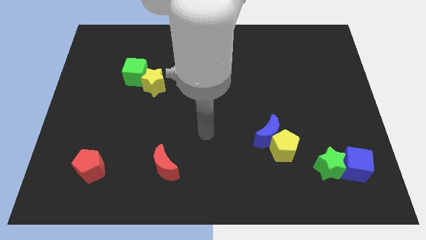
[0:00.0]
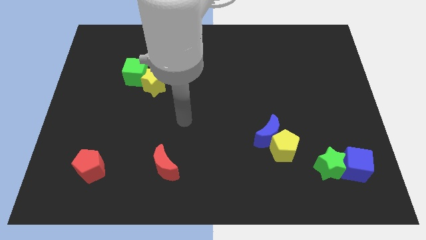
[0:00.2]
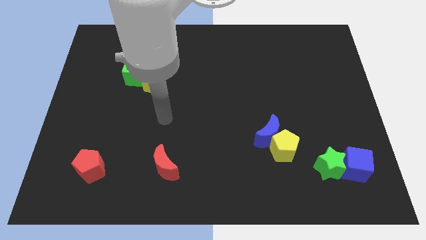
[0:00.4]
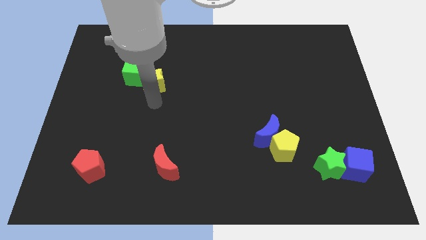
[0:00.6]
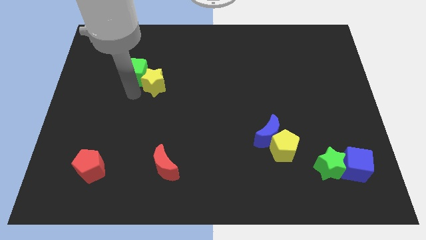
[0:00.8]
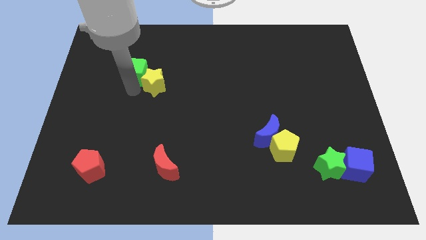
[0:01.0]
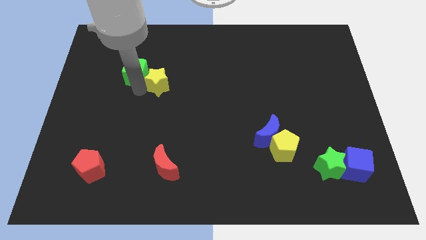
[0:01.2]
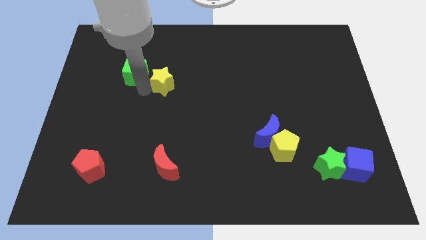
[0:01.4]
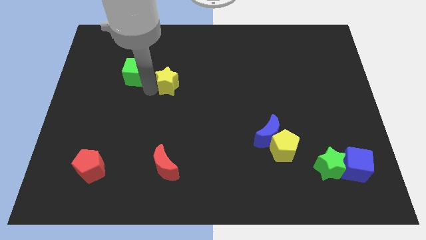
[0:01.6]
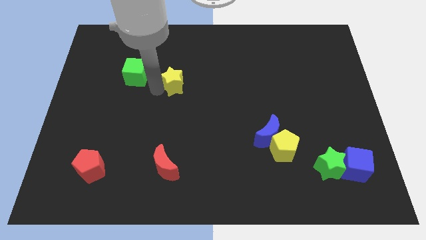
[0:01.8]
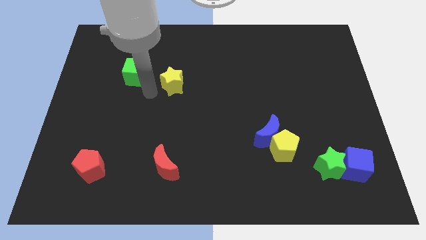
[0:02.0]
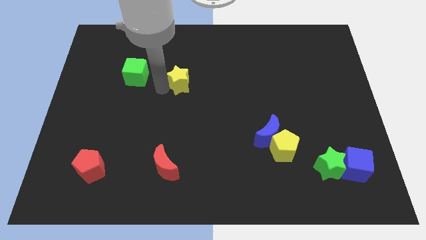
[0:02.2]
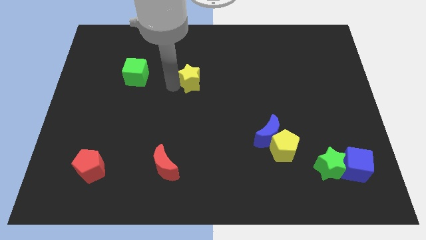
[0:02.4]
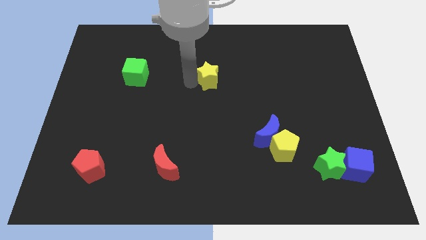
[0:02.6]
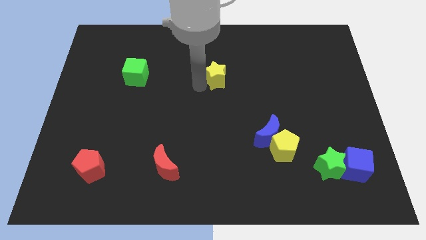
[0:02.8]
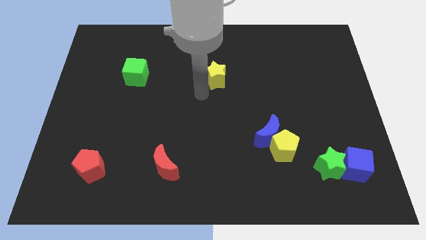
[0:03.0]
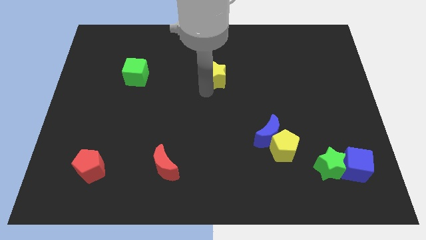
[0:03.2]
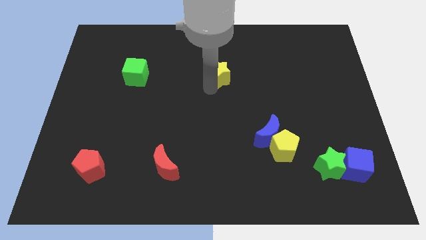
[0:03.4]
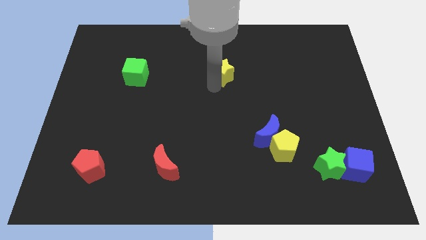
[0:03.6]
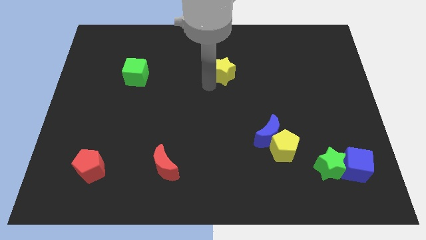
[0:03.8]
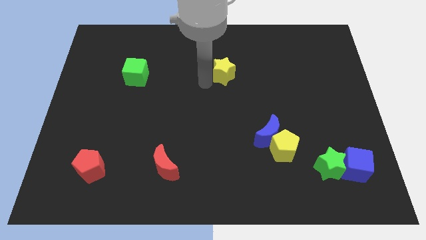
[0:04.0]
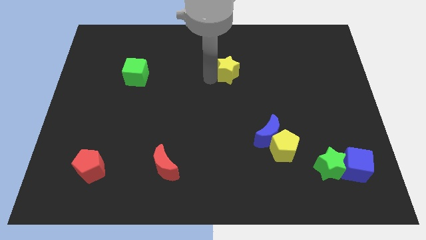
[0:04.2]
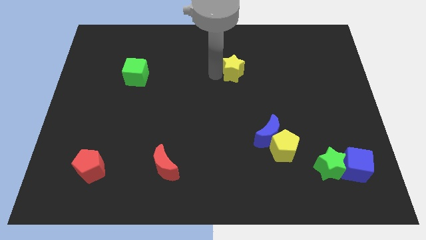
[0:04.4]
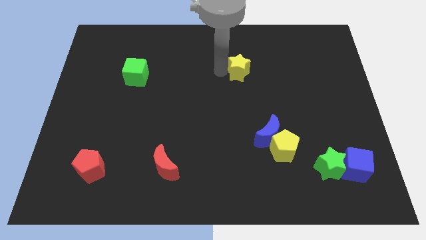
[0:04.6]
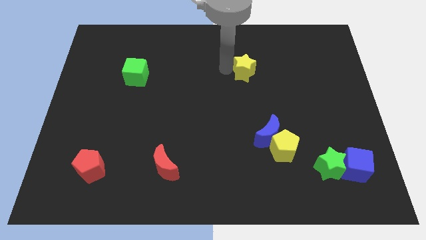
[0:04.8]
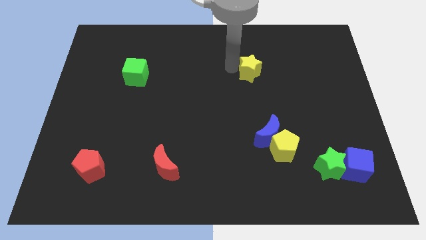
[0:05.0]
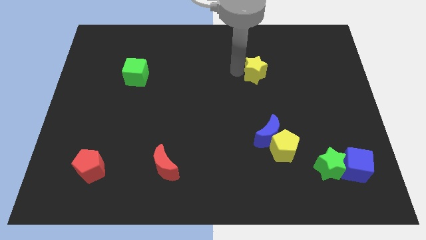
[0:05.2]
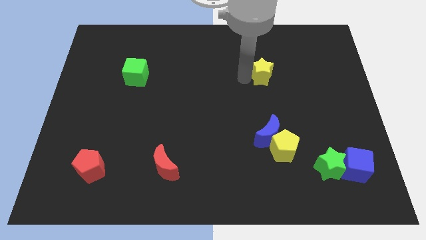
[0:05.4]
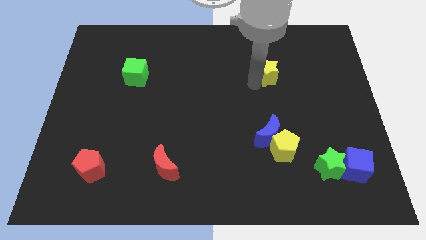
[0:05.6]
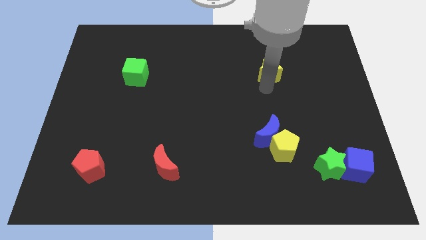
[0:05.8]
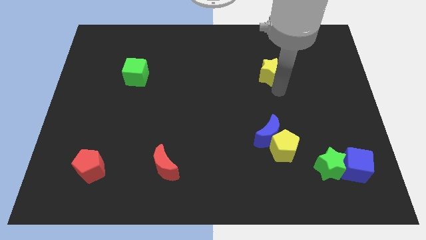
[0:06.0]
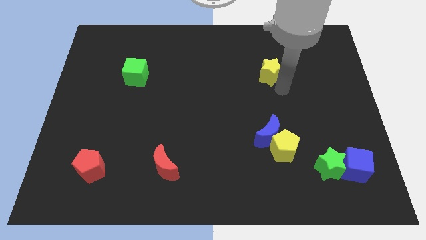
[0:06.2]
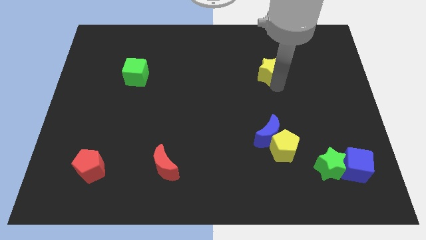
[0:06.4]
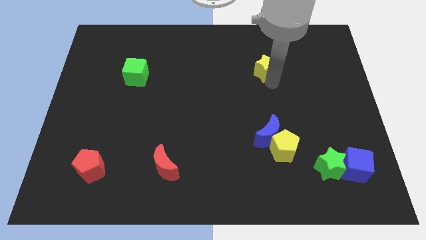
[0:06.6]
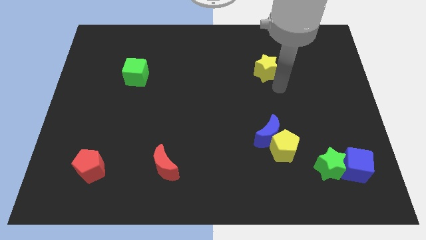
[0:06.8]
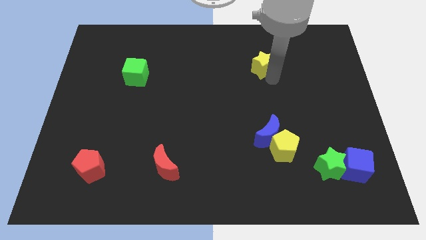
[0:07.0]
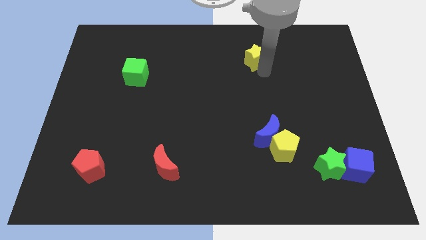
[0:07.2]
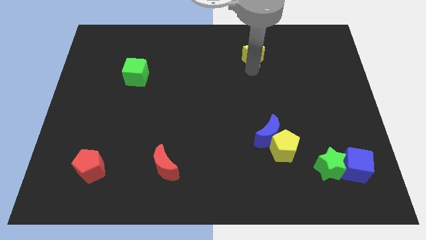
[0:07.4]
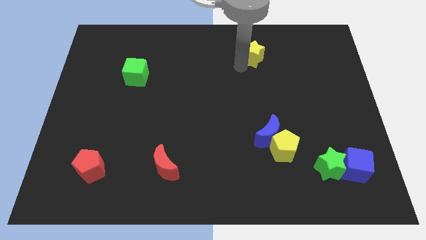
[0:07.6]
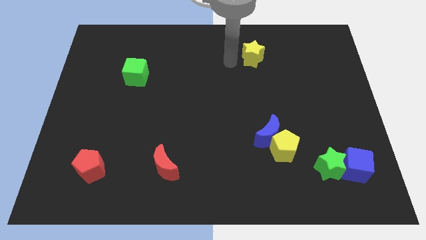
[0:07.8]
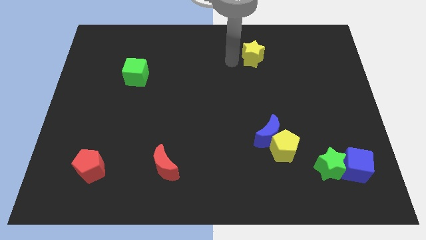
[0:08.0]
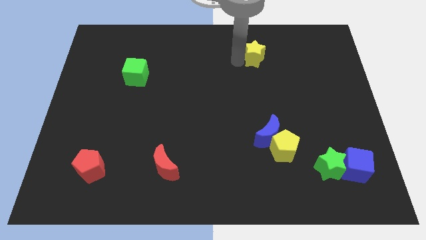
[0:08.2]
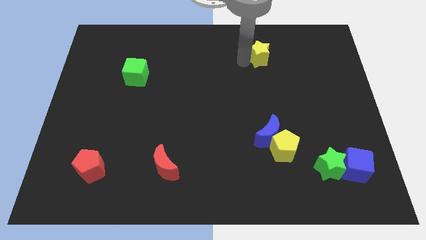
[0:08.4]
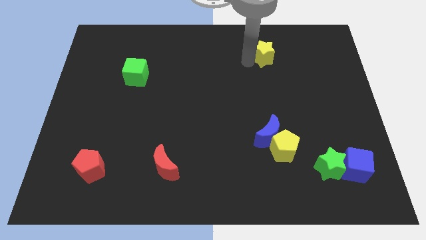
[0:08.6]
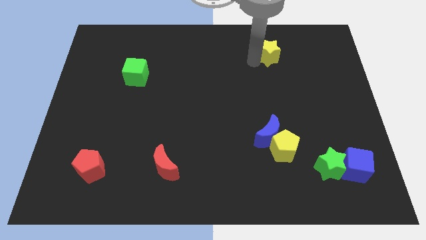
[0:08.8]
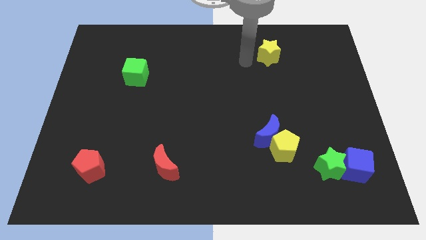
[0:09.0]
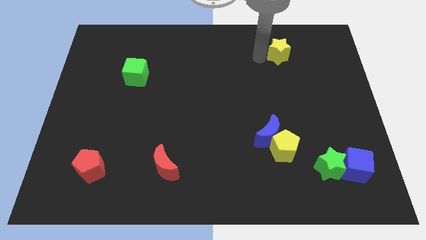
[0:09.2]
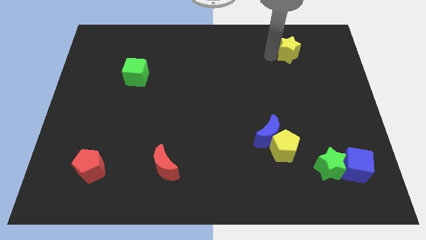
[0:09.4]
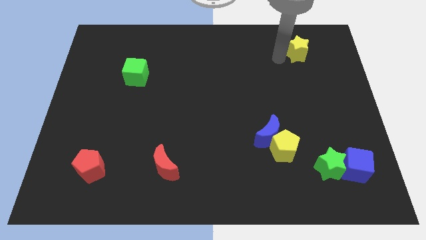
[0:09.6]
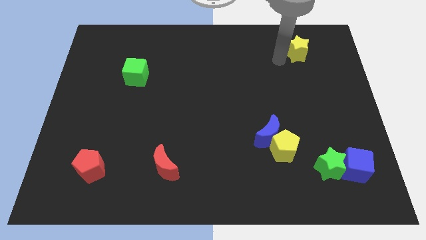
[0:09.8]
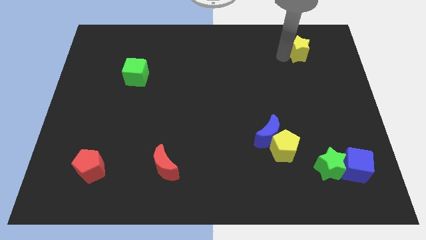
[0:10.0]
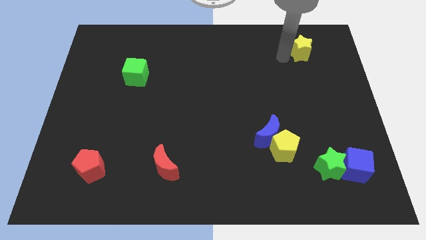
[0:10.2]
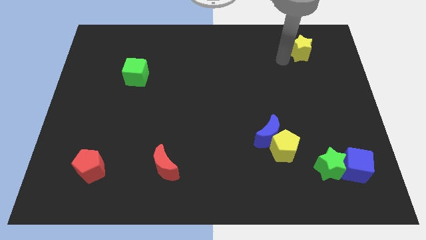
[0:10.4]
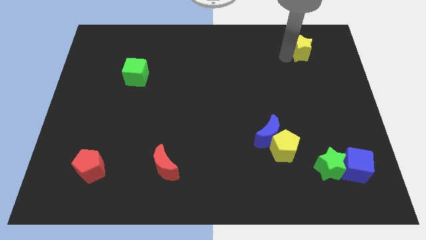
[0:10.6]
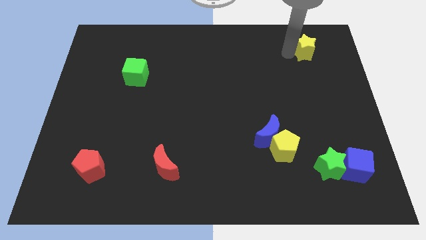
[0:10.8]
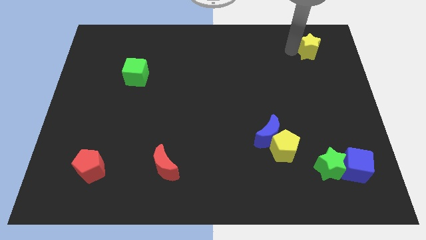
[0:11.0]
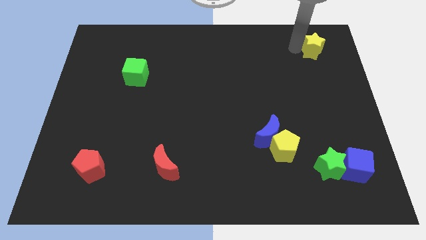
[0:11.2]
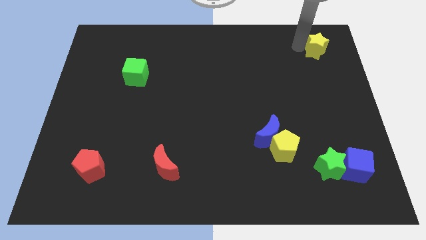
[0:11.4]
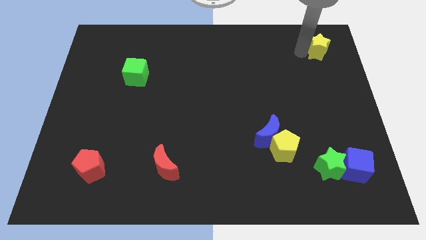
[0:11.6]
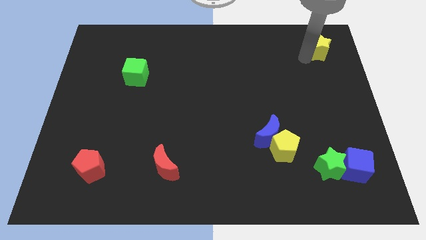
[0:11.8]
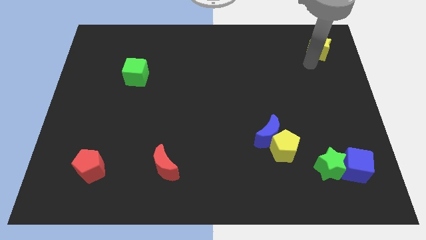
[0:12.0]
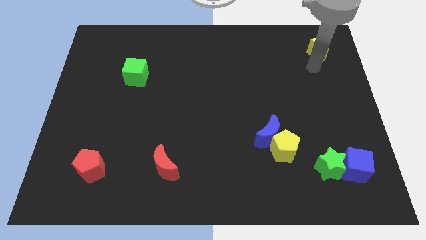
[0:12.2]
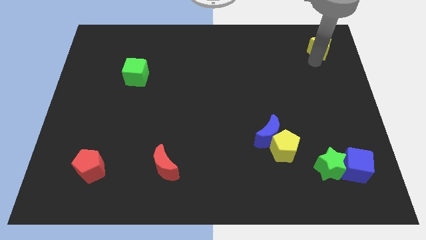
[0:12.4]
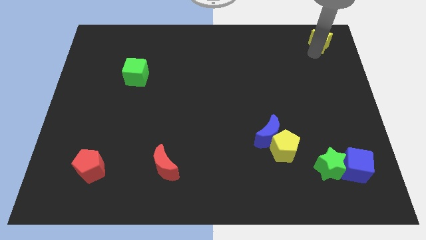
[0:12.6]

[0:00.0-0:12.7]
put the yellow star to the top right of the board

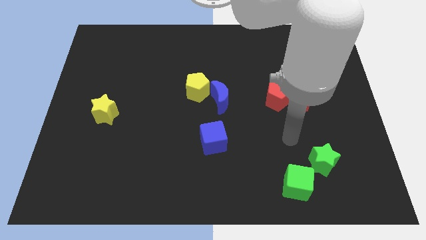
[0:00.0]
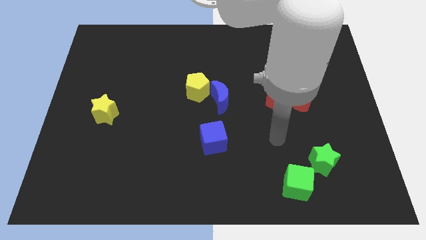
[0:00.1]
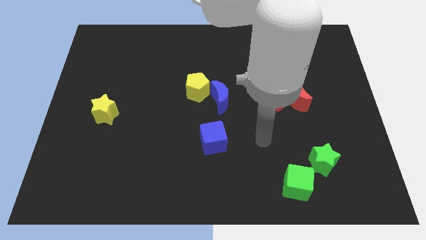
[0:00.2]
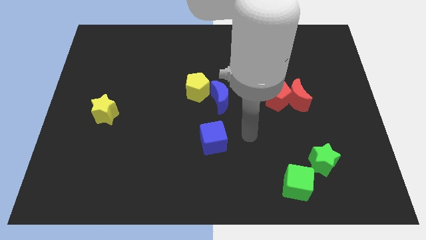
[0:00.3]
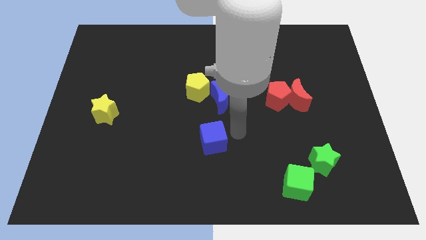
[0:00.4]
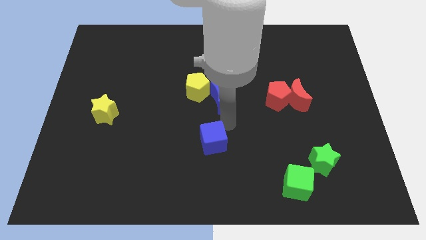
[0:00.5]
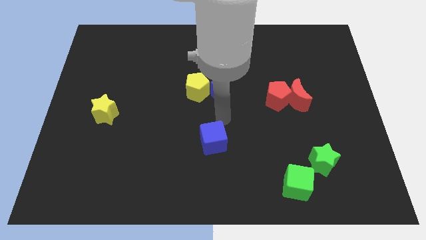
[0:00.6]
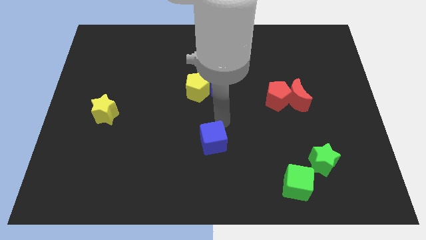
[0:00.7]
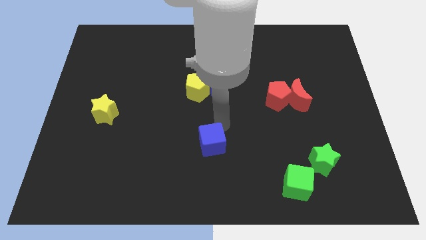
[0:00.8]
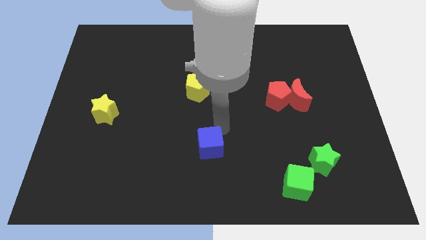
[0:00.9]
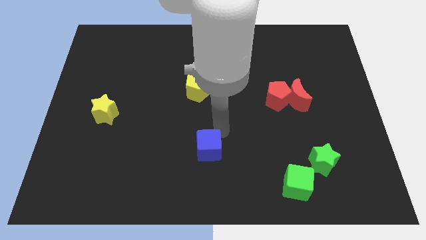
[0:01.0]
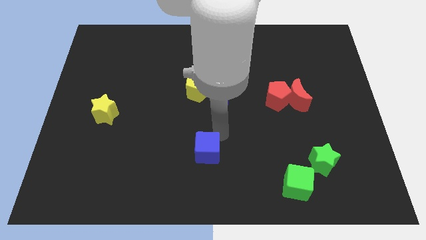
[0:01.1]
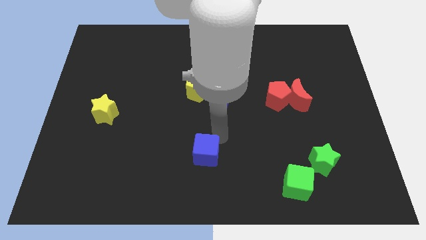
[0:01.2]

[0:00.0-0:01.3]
push the blue cube to the bottom
